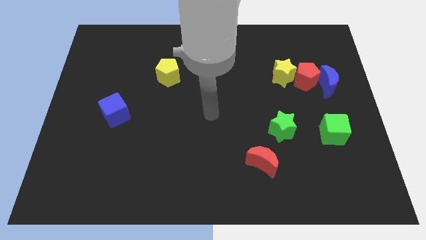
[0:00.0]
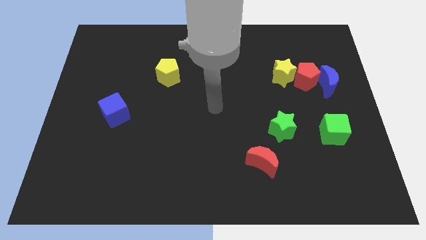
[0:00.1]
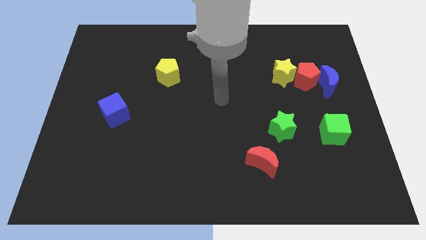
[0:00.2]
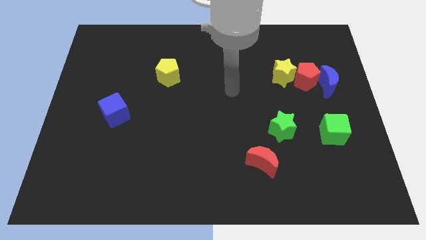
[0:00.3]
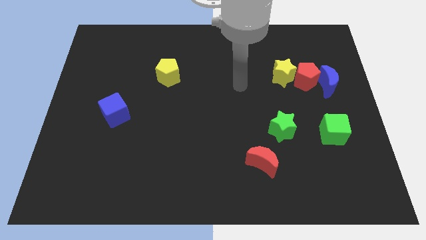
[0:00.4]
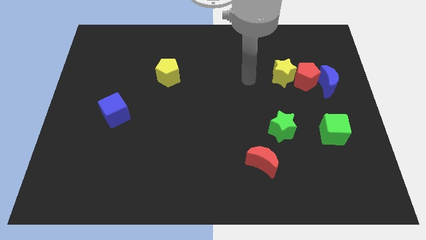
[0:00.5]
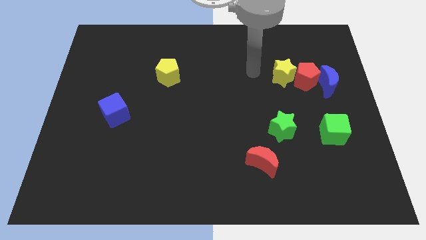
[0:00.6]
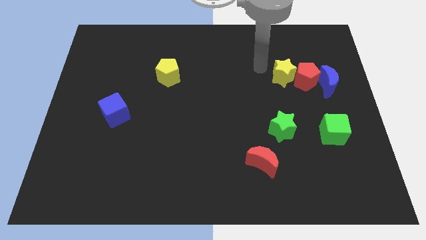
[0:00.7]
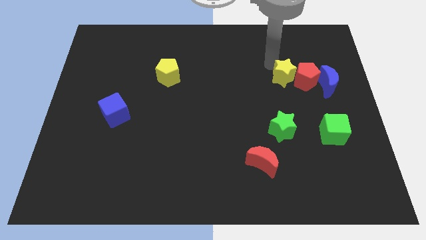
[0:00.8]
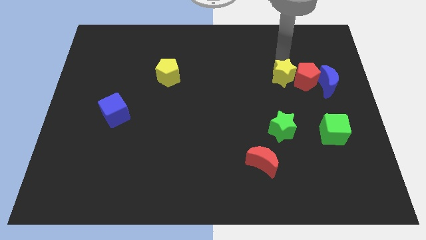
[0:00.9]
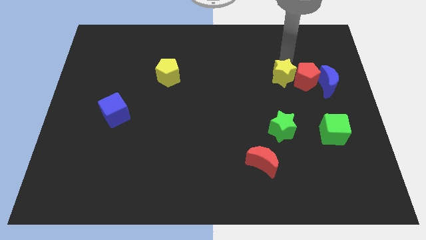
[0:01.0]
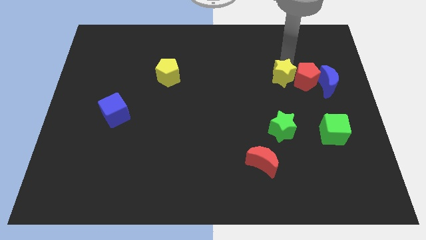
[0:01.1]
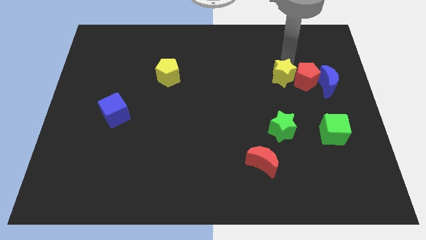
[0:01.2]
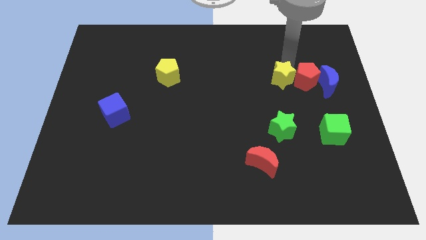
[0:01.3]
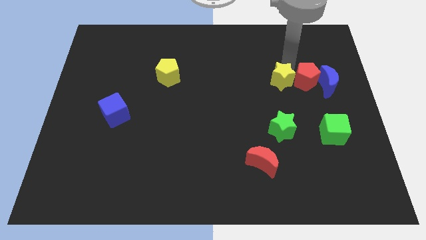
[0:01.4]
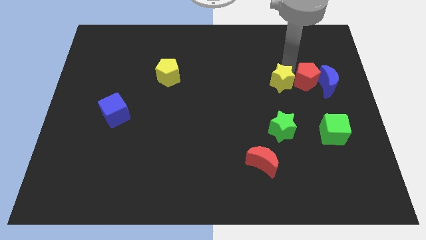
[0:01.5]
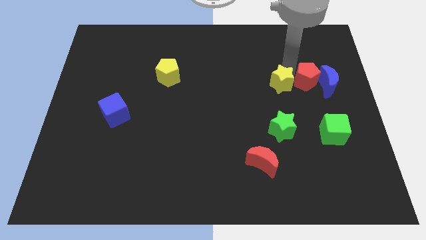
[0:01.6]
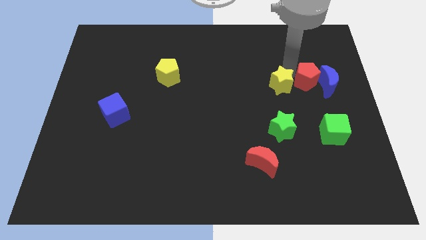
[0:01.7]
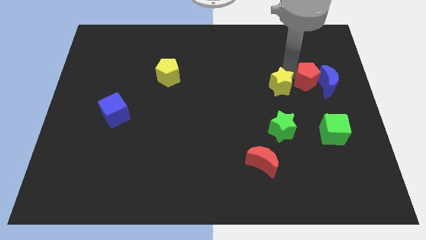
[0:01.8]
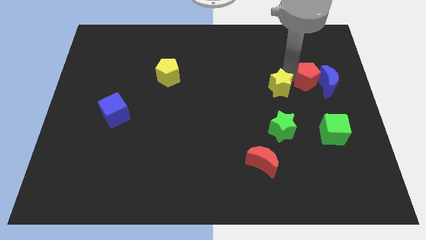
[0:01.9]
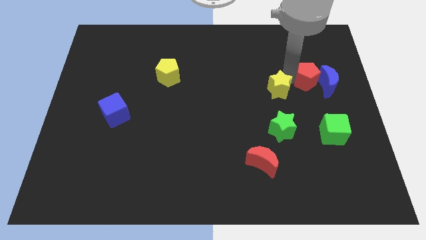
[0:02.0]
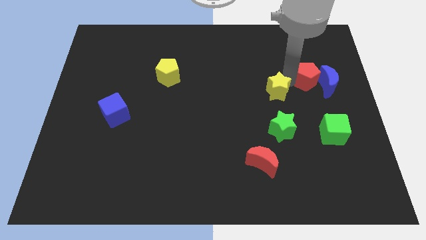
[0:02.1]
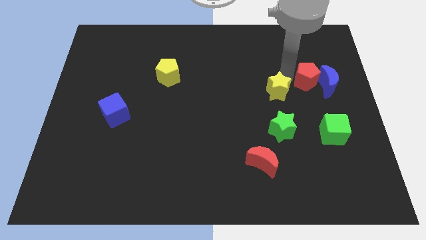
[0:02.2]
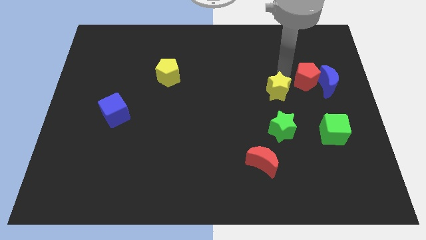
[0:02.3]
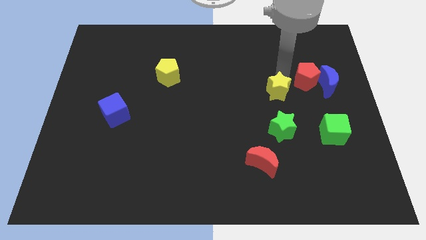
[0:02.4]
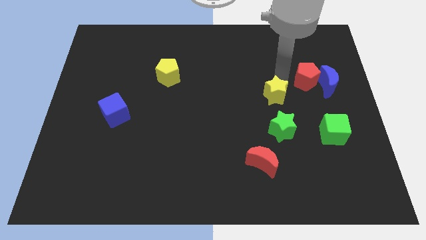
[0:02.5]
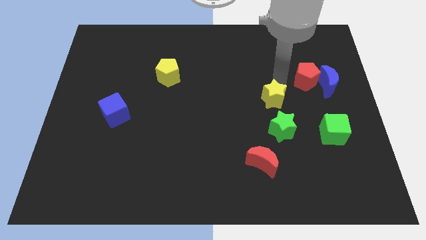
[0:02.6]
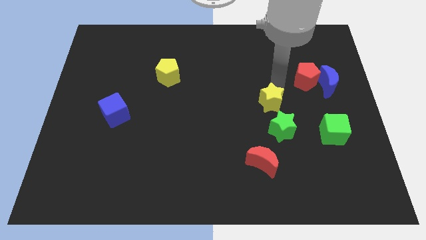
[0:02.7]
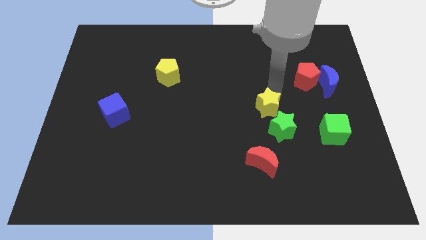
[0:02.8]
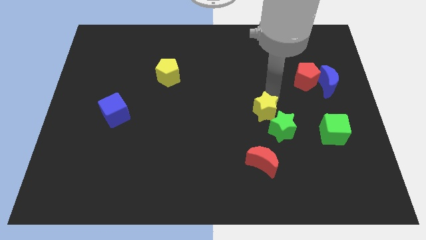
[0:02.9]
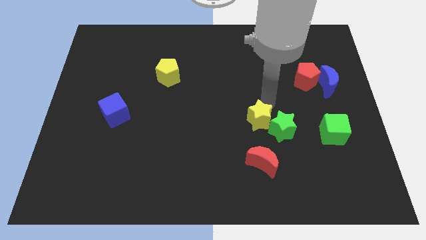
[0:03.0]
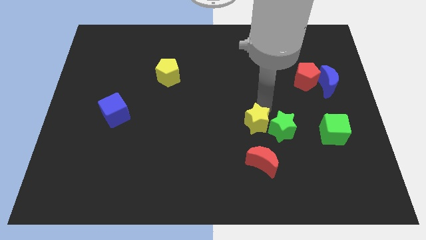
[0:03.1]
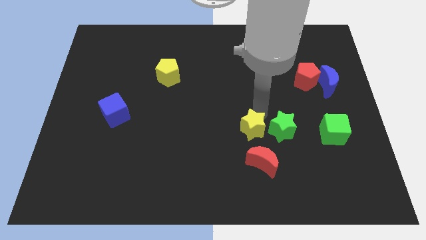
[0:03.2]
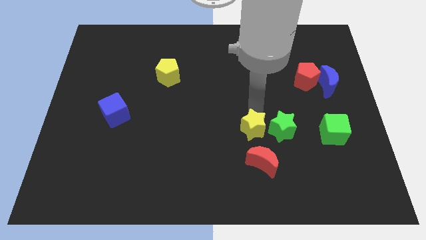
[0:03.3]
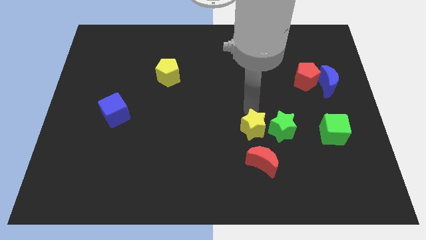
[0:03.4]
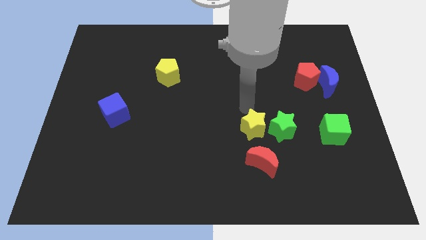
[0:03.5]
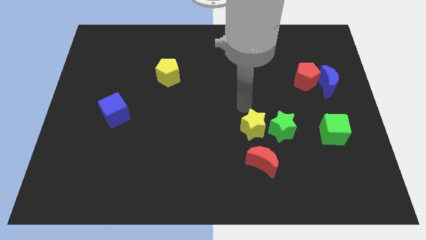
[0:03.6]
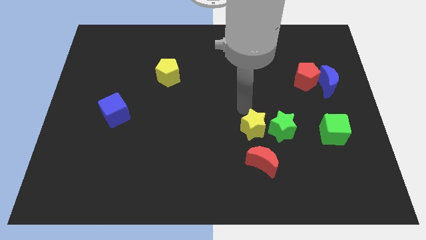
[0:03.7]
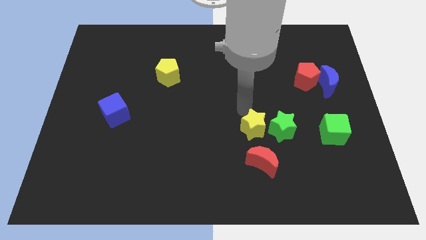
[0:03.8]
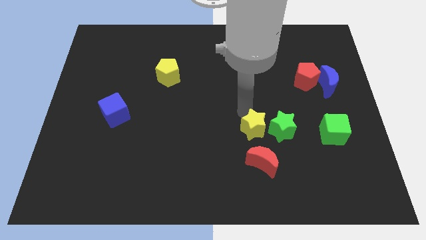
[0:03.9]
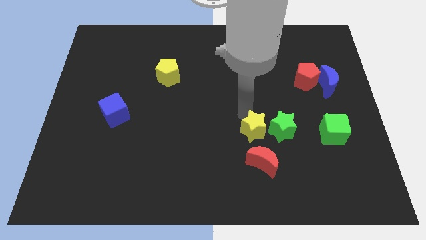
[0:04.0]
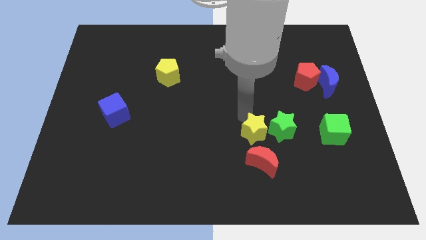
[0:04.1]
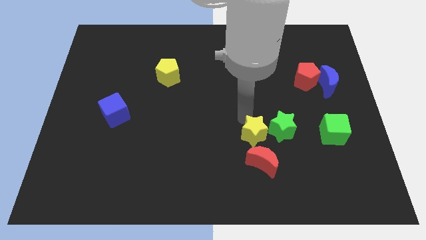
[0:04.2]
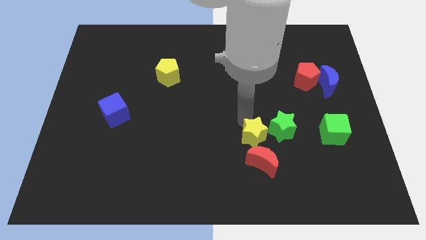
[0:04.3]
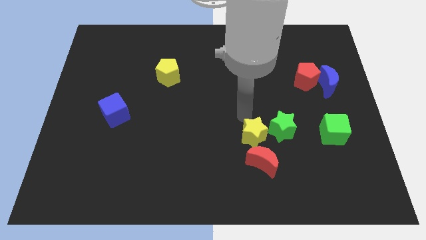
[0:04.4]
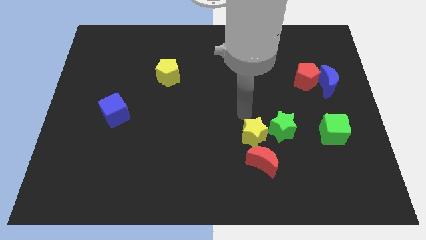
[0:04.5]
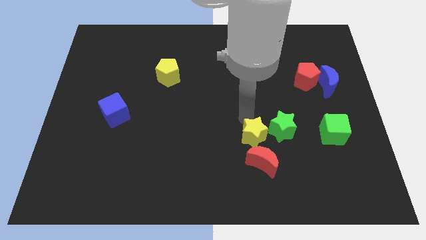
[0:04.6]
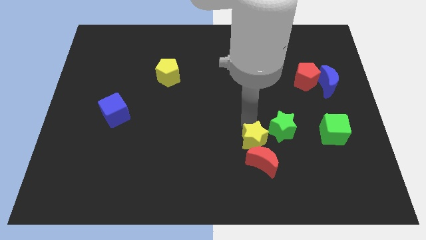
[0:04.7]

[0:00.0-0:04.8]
move the yellow star next to the red moon

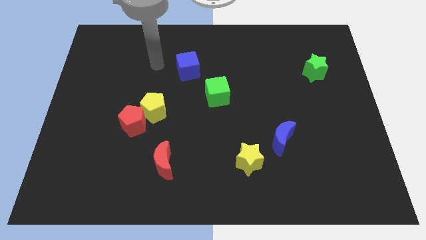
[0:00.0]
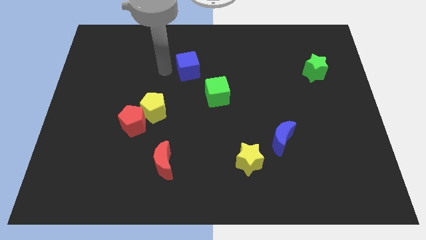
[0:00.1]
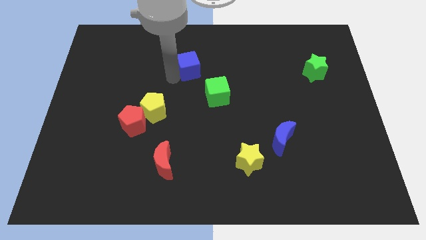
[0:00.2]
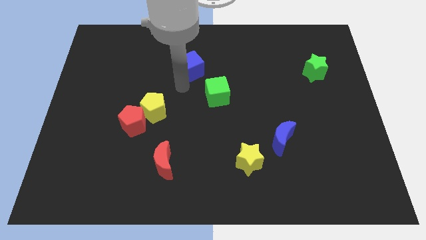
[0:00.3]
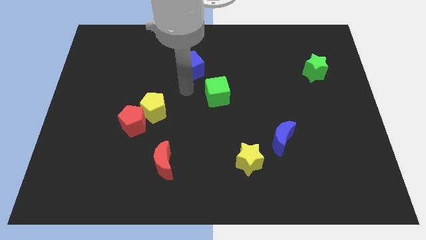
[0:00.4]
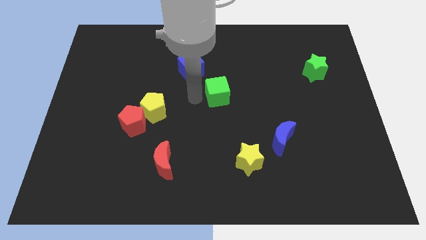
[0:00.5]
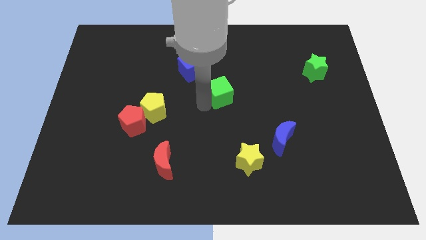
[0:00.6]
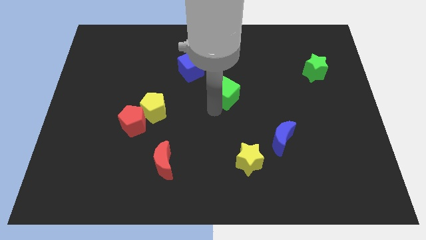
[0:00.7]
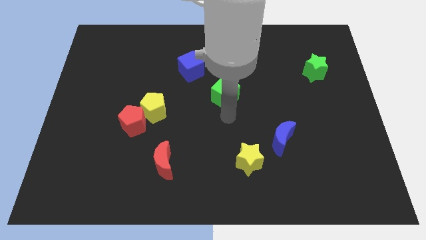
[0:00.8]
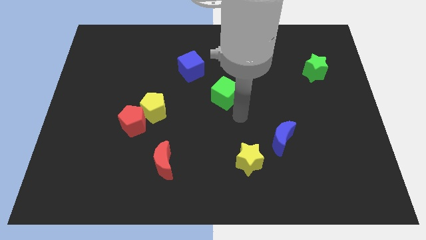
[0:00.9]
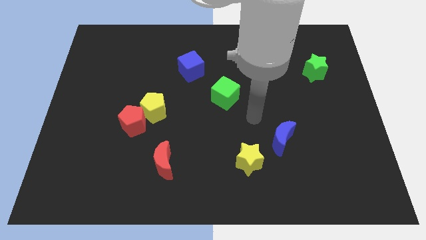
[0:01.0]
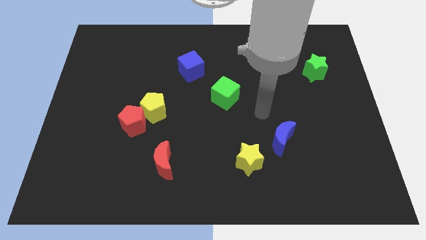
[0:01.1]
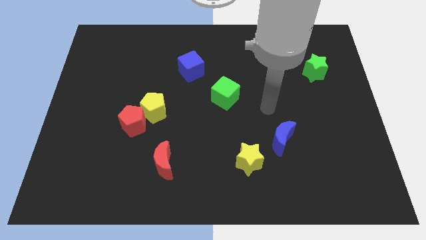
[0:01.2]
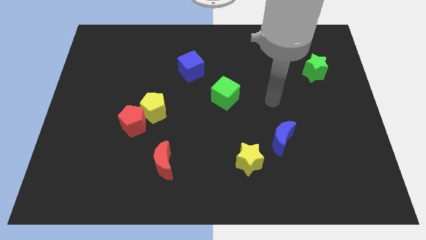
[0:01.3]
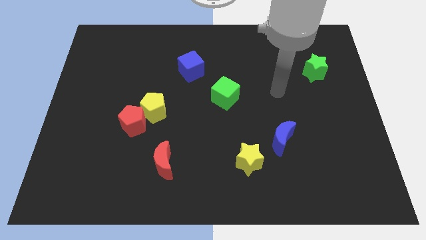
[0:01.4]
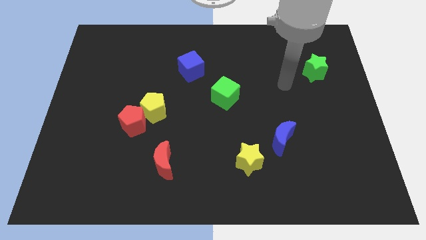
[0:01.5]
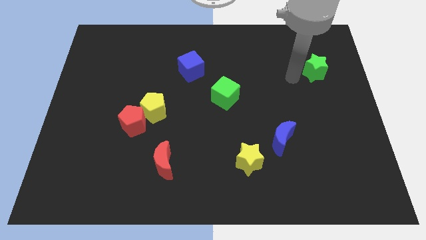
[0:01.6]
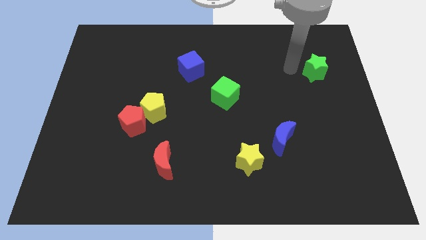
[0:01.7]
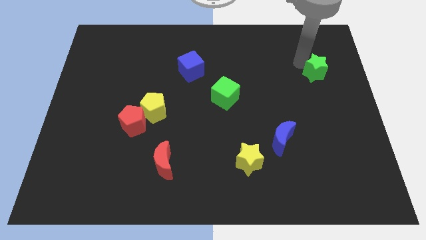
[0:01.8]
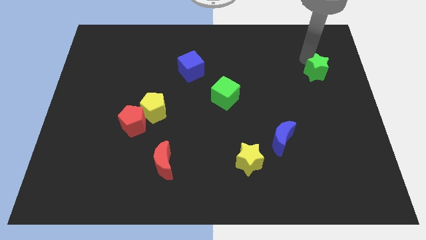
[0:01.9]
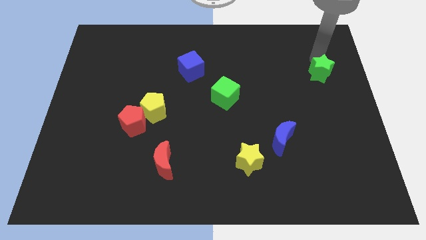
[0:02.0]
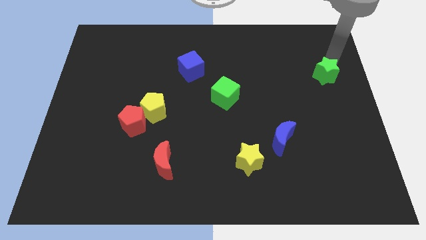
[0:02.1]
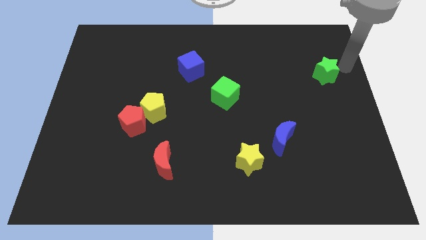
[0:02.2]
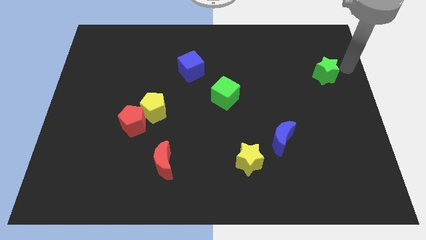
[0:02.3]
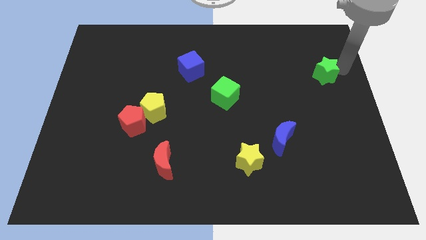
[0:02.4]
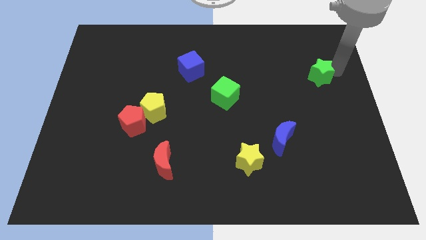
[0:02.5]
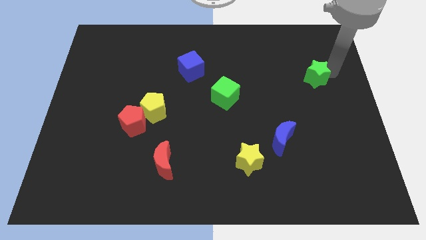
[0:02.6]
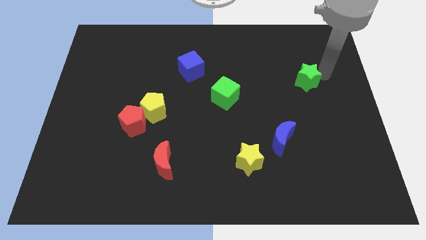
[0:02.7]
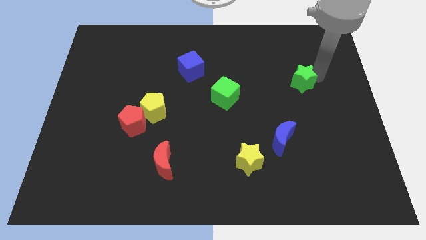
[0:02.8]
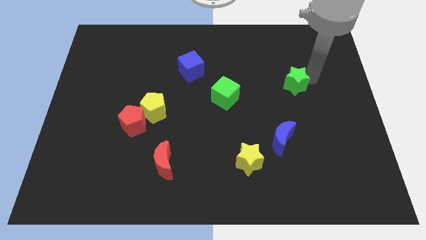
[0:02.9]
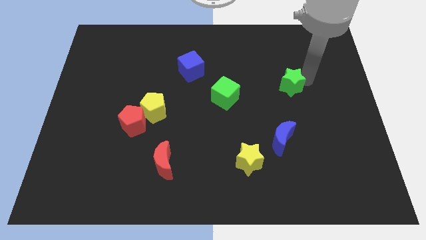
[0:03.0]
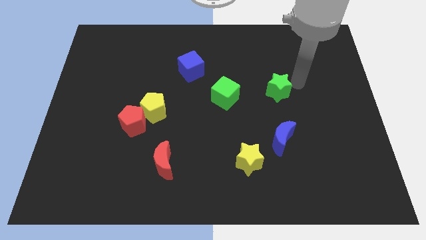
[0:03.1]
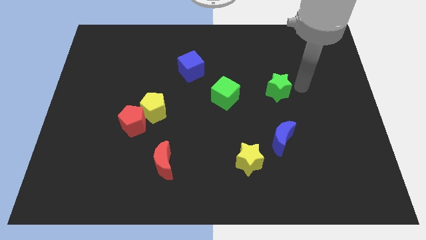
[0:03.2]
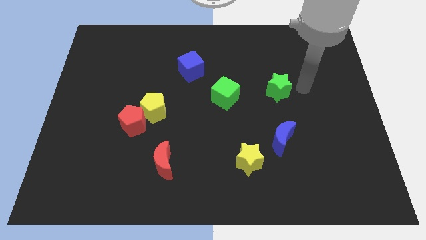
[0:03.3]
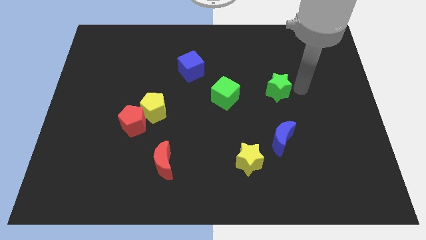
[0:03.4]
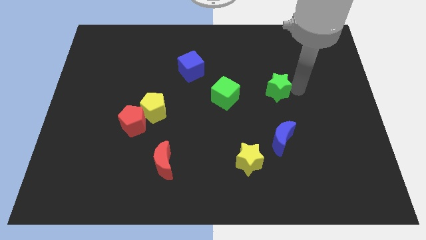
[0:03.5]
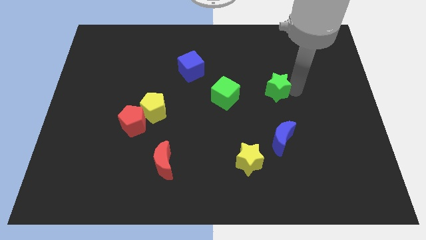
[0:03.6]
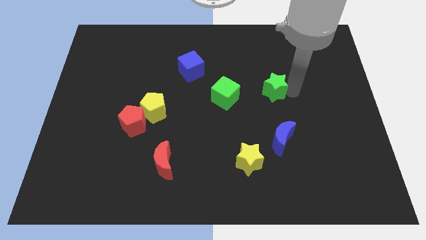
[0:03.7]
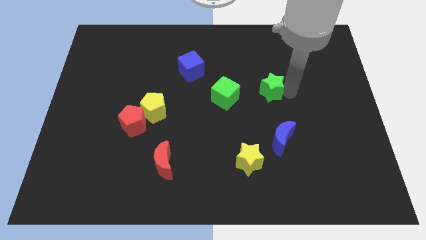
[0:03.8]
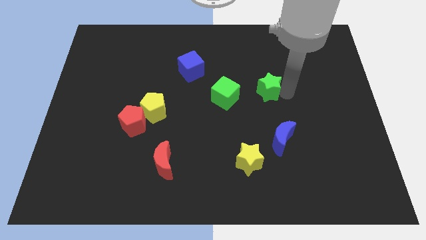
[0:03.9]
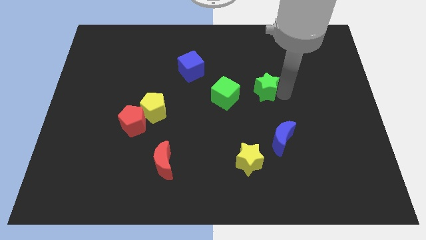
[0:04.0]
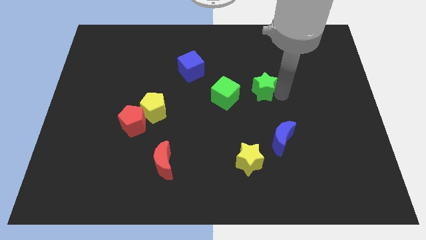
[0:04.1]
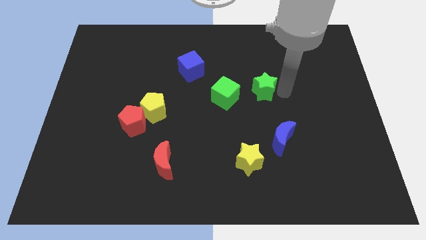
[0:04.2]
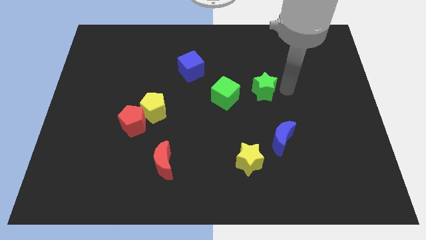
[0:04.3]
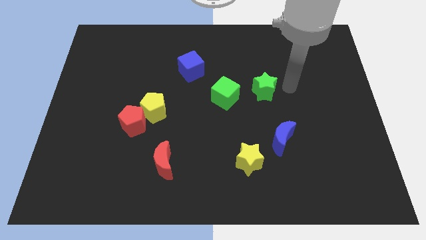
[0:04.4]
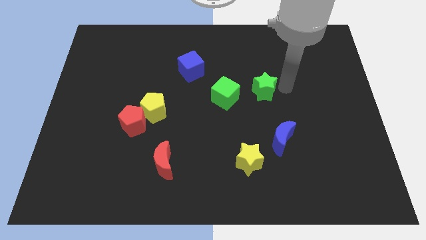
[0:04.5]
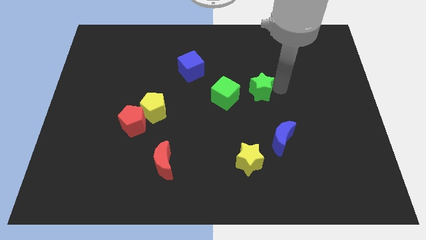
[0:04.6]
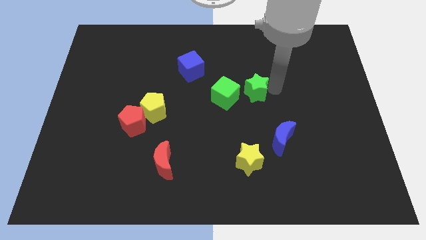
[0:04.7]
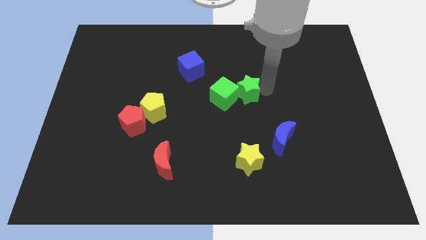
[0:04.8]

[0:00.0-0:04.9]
slide the green star close to the green cube
